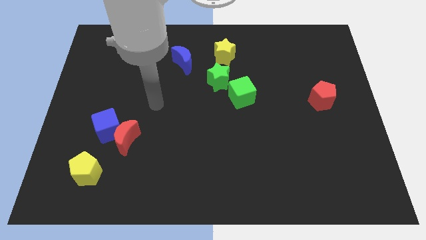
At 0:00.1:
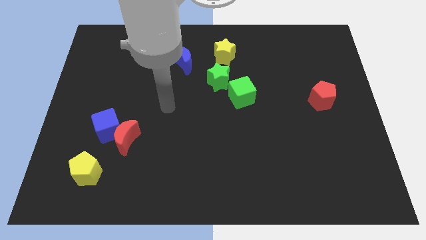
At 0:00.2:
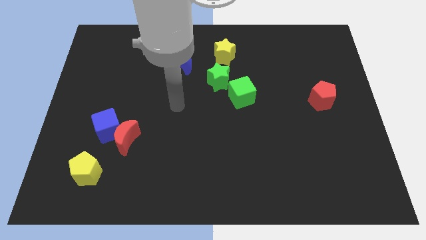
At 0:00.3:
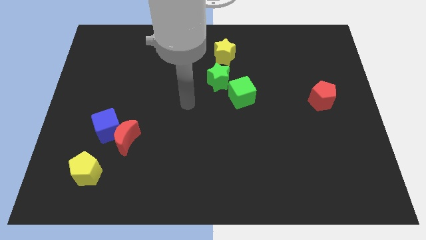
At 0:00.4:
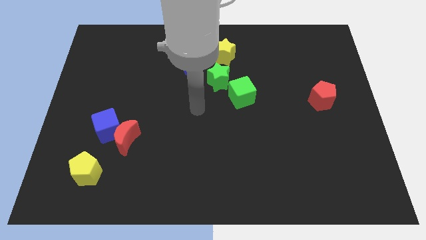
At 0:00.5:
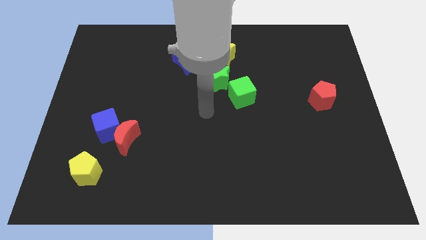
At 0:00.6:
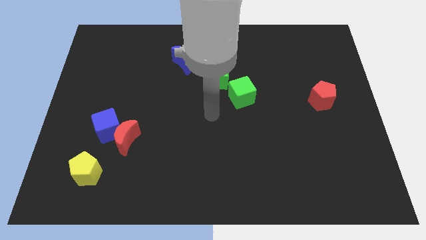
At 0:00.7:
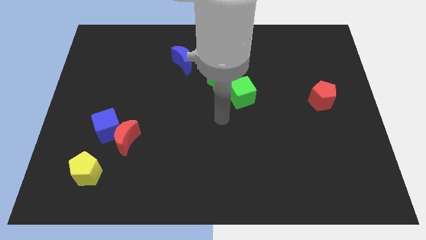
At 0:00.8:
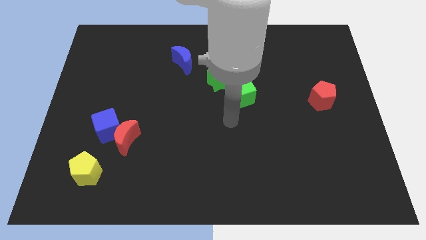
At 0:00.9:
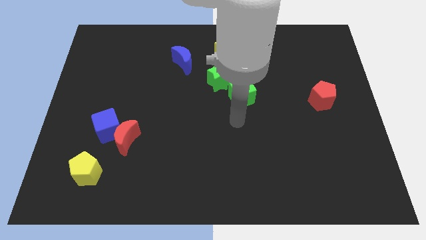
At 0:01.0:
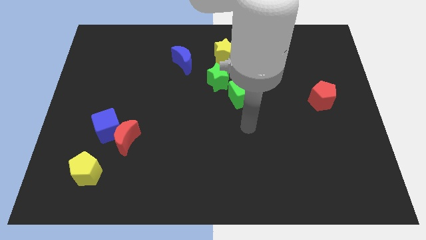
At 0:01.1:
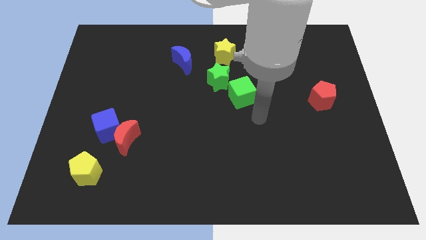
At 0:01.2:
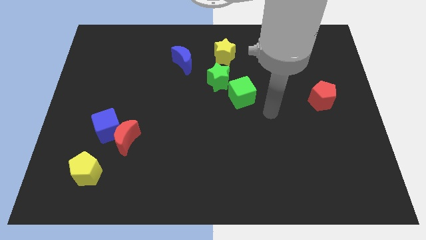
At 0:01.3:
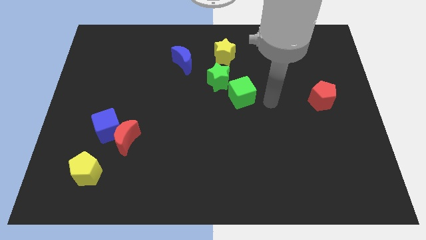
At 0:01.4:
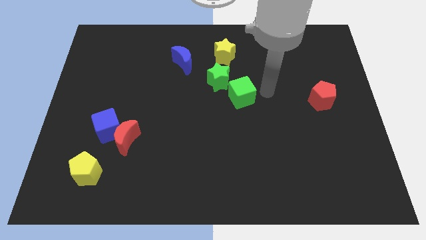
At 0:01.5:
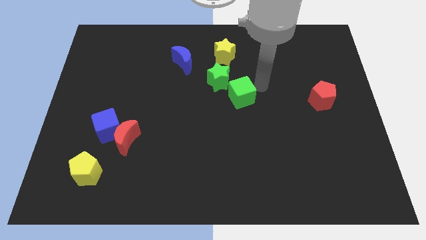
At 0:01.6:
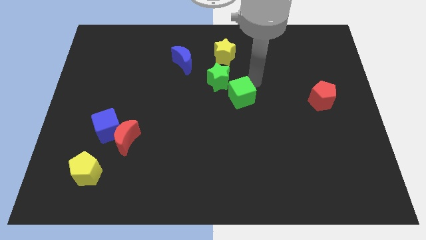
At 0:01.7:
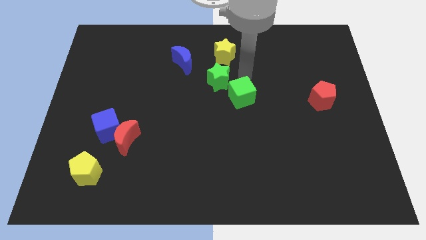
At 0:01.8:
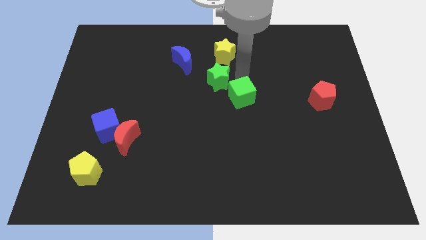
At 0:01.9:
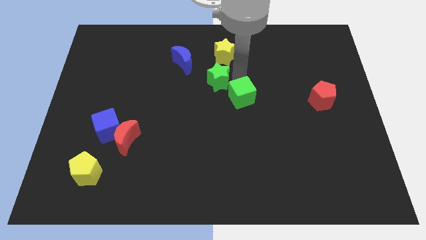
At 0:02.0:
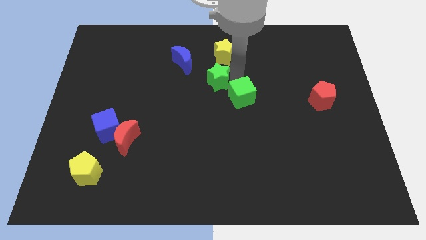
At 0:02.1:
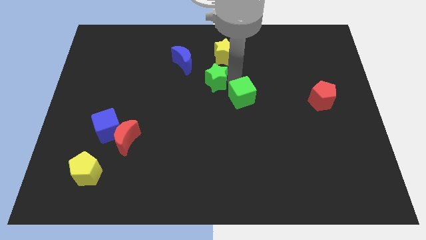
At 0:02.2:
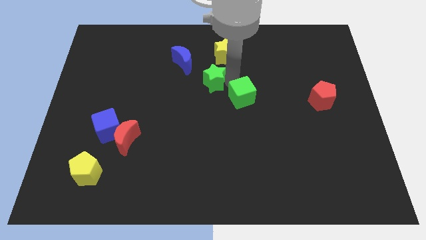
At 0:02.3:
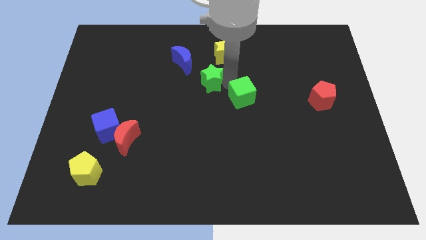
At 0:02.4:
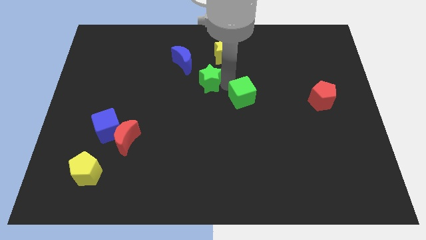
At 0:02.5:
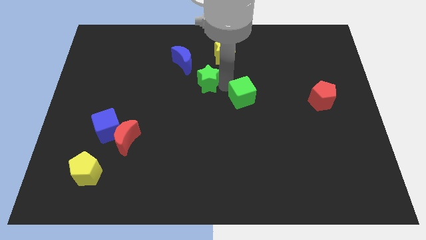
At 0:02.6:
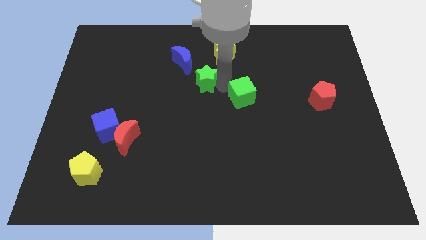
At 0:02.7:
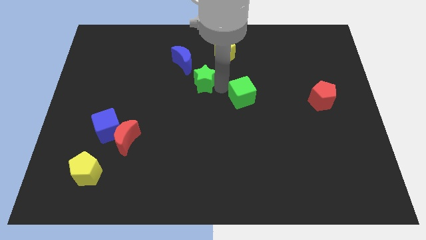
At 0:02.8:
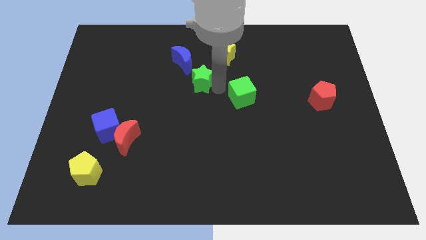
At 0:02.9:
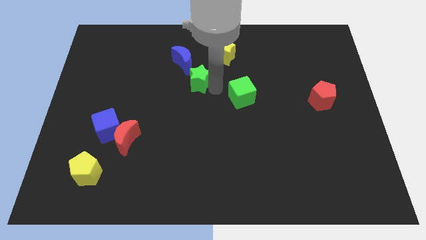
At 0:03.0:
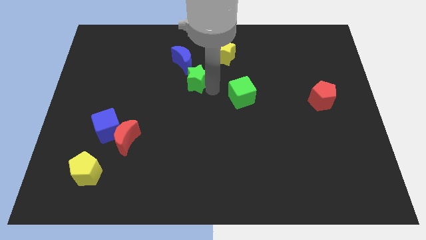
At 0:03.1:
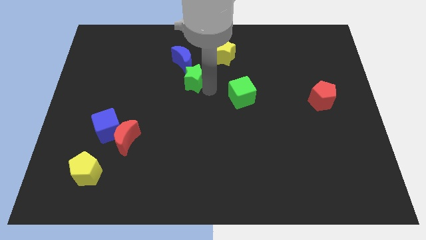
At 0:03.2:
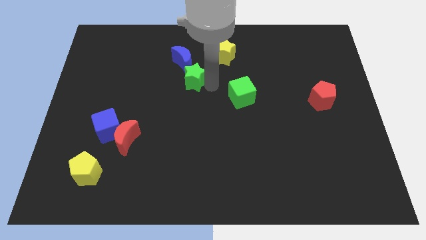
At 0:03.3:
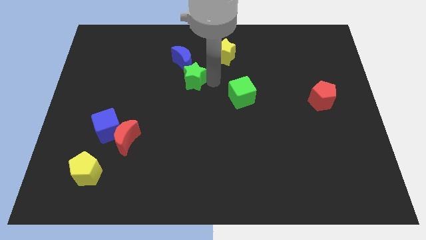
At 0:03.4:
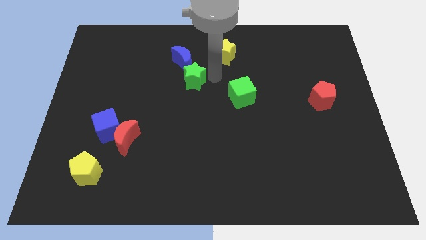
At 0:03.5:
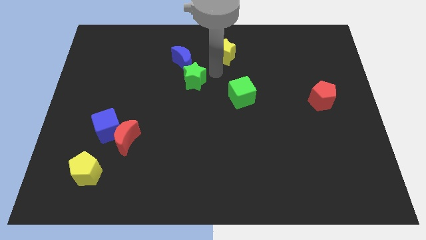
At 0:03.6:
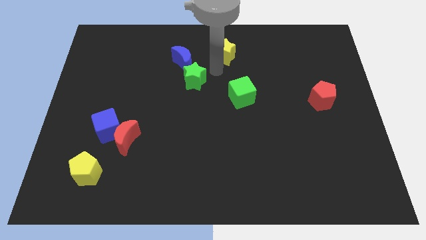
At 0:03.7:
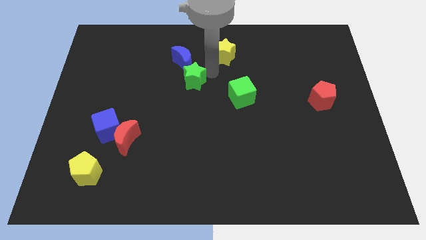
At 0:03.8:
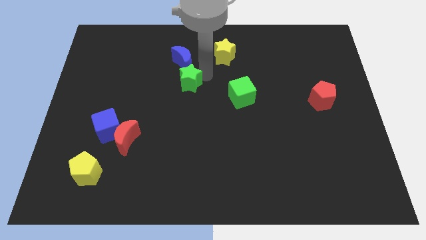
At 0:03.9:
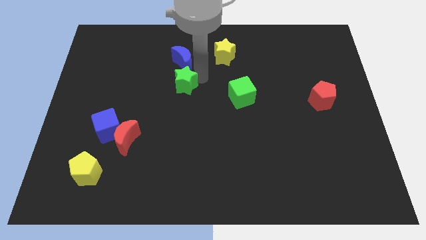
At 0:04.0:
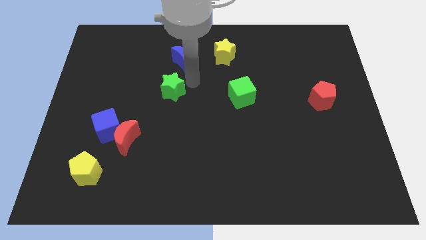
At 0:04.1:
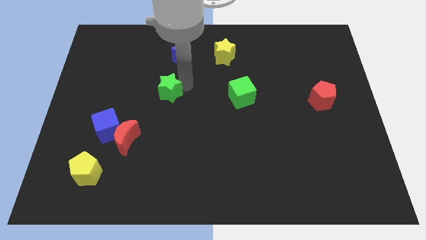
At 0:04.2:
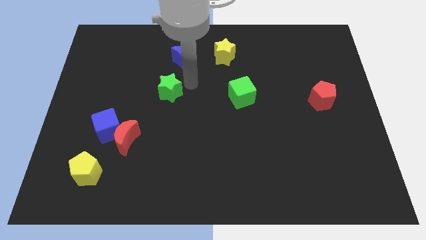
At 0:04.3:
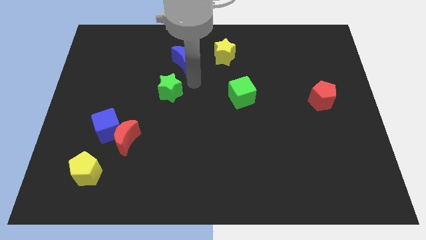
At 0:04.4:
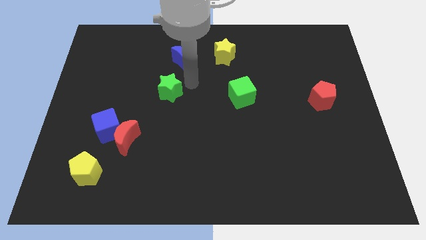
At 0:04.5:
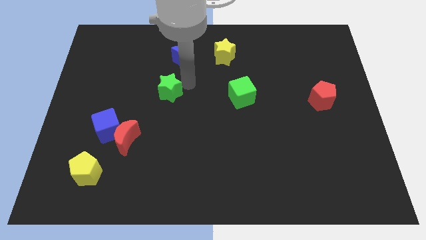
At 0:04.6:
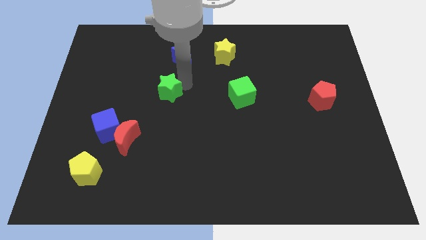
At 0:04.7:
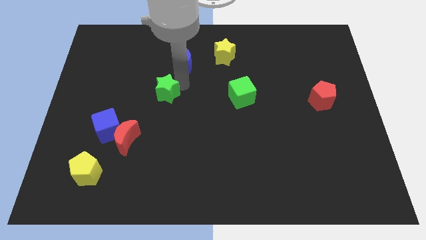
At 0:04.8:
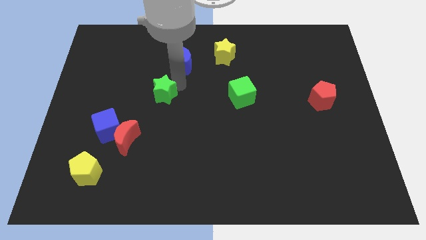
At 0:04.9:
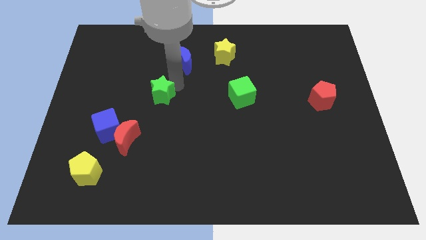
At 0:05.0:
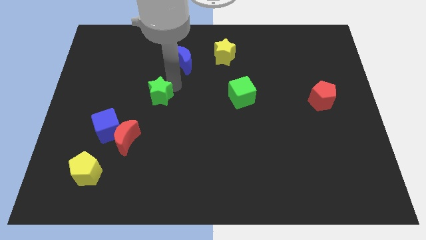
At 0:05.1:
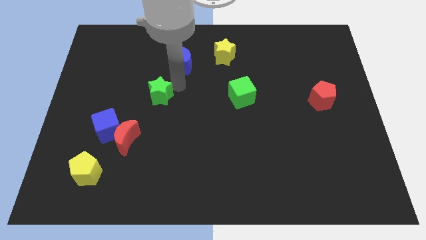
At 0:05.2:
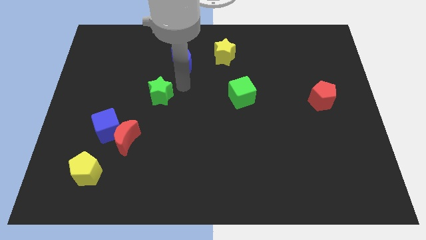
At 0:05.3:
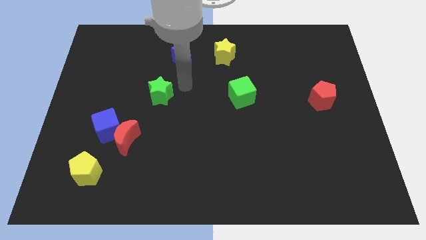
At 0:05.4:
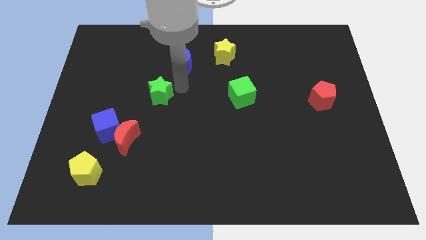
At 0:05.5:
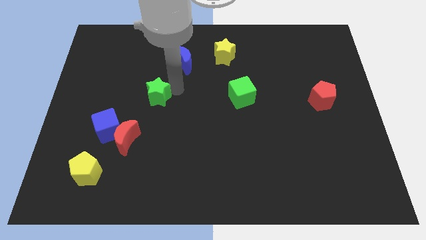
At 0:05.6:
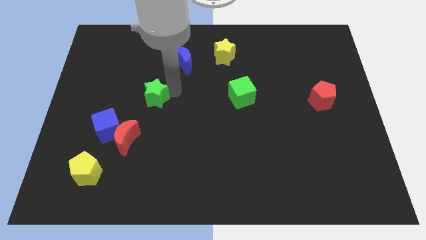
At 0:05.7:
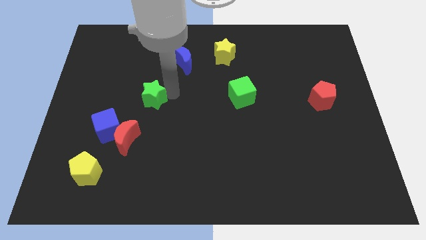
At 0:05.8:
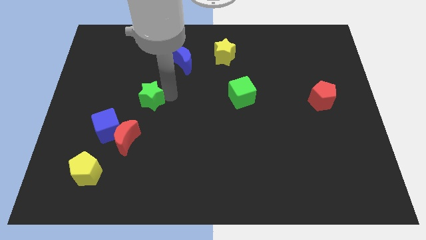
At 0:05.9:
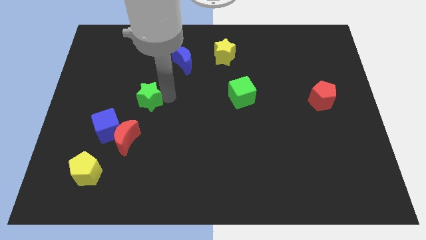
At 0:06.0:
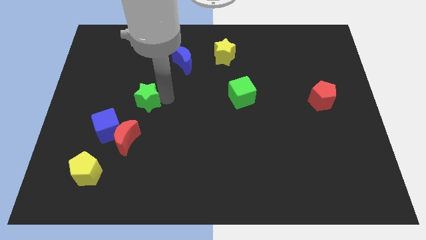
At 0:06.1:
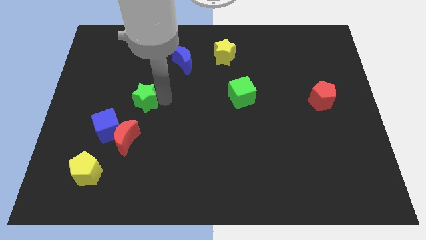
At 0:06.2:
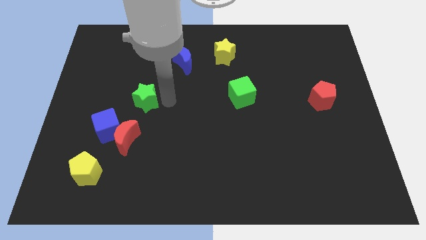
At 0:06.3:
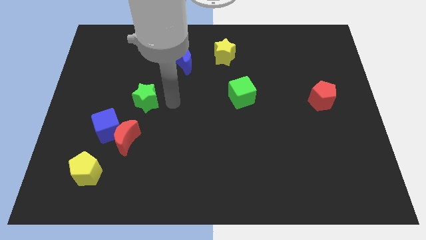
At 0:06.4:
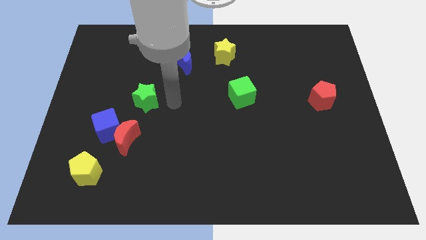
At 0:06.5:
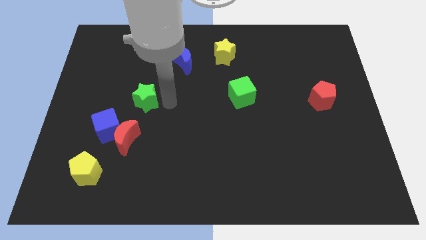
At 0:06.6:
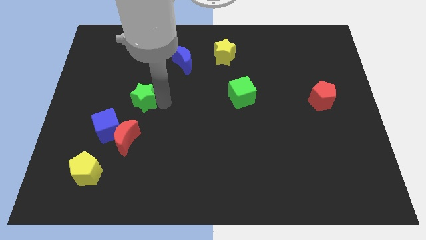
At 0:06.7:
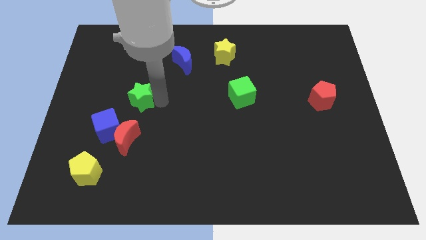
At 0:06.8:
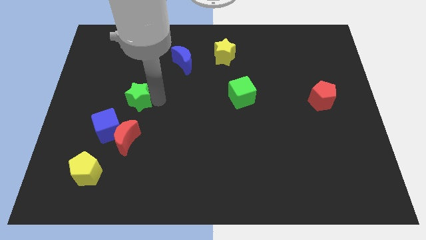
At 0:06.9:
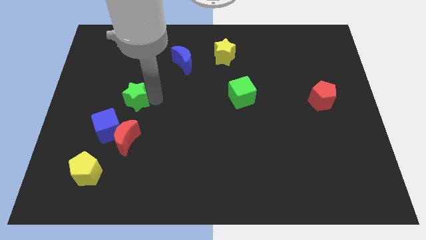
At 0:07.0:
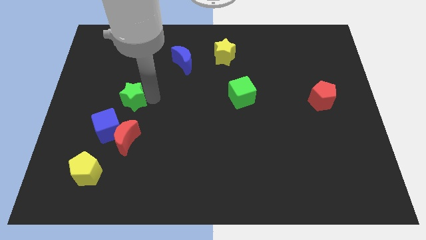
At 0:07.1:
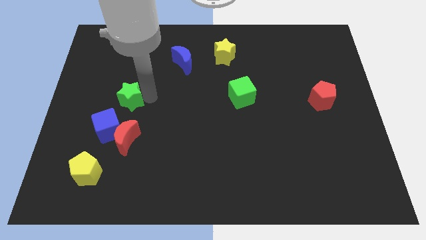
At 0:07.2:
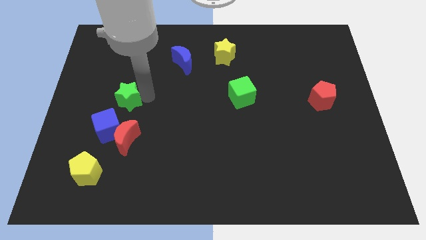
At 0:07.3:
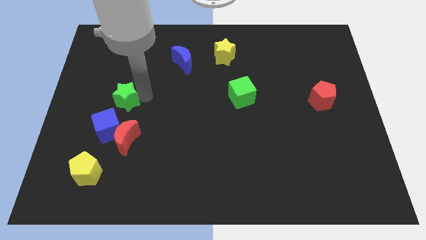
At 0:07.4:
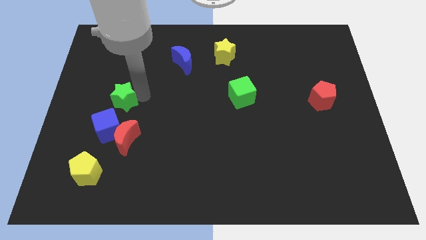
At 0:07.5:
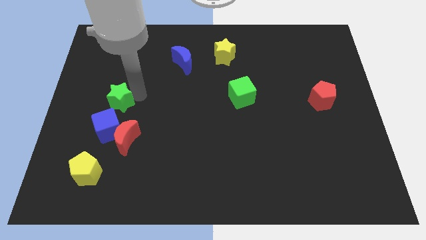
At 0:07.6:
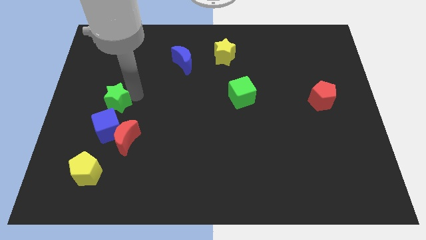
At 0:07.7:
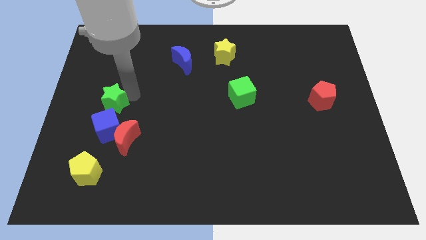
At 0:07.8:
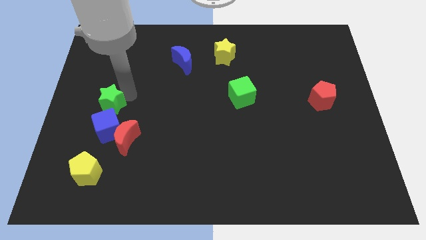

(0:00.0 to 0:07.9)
put the green star to the top left side of the blue cube
